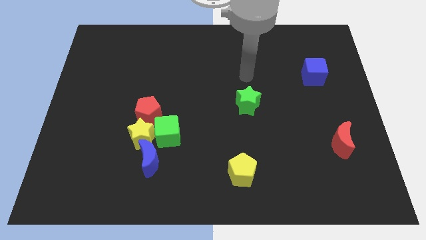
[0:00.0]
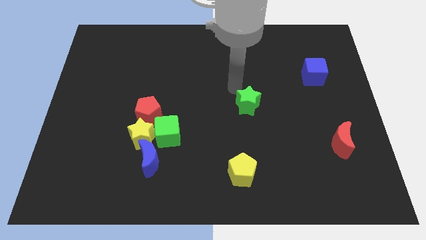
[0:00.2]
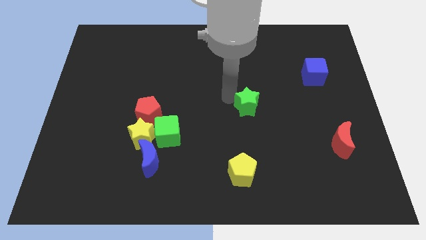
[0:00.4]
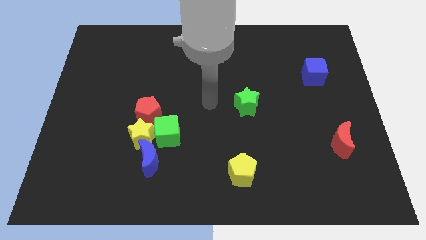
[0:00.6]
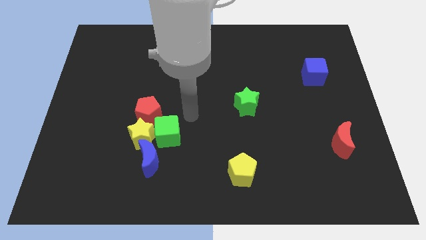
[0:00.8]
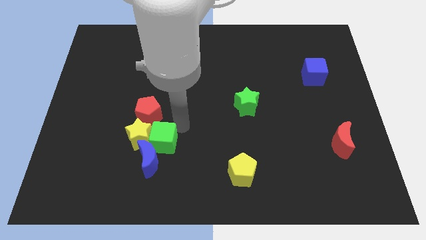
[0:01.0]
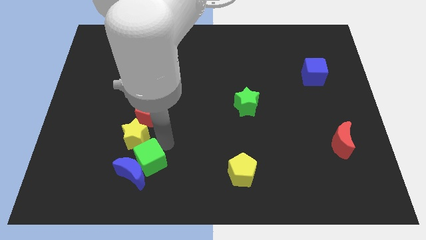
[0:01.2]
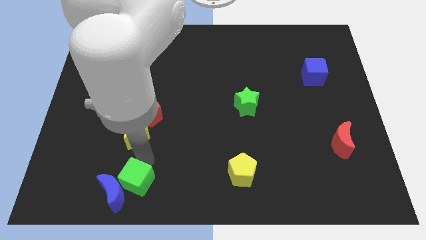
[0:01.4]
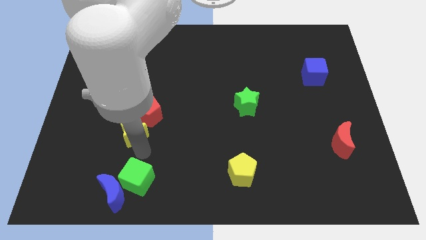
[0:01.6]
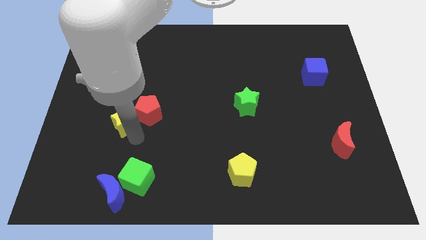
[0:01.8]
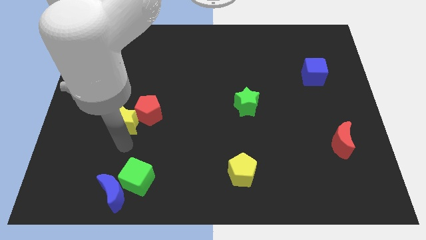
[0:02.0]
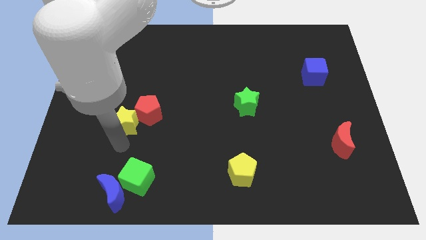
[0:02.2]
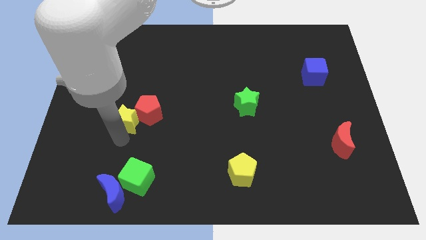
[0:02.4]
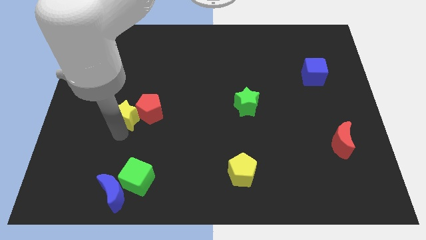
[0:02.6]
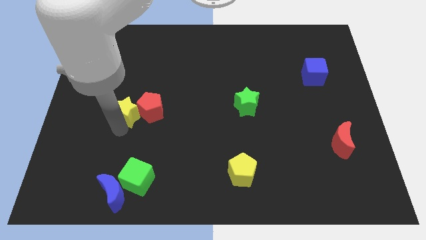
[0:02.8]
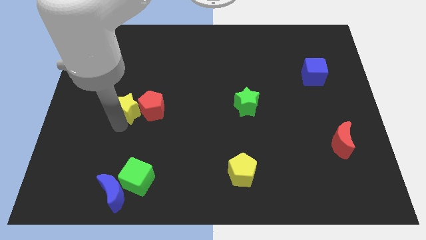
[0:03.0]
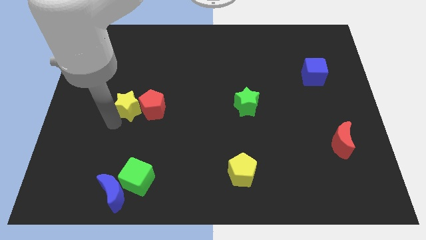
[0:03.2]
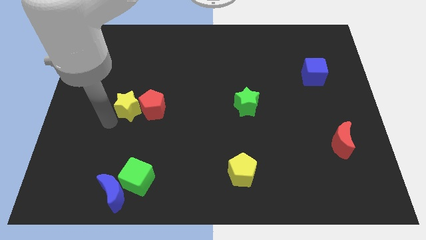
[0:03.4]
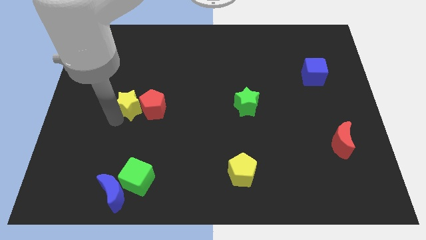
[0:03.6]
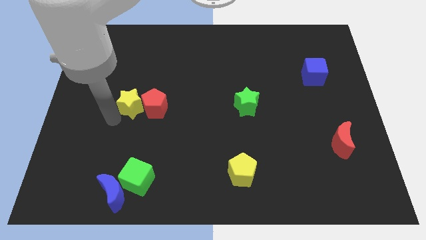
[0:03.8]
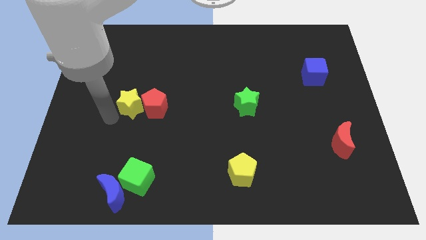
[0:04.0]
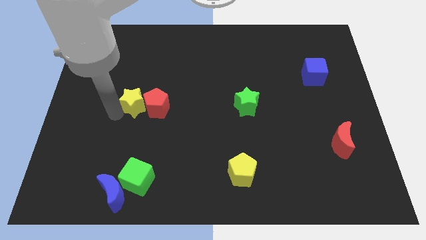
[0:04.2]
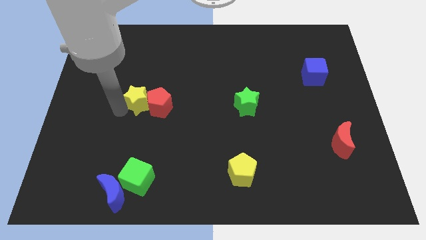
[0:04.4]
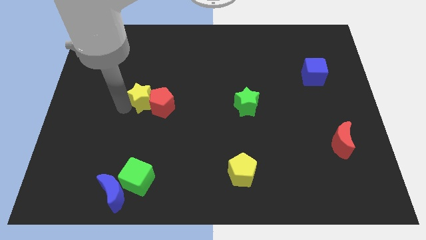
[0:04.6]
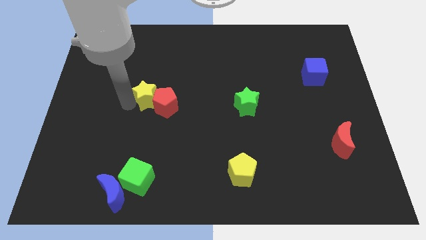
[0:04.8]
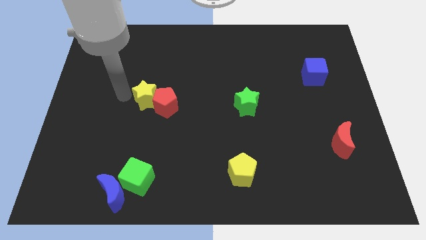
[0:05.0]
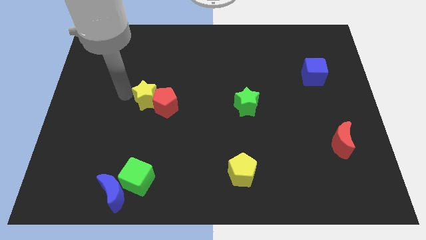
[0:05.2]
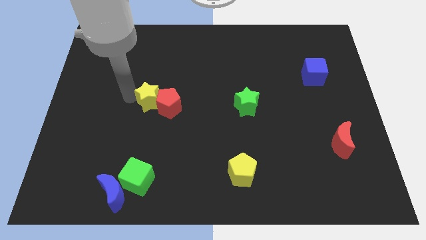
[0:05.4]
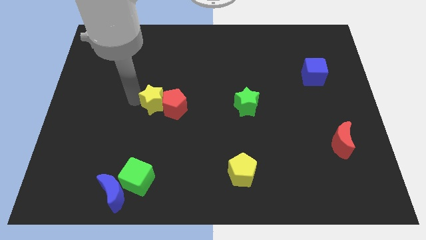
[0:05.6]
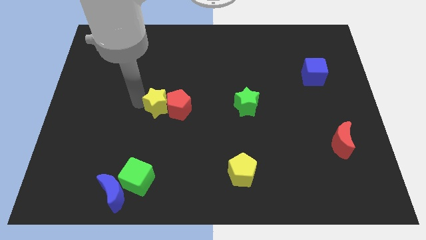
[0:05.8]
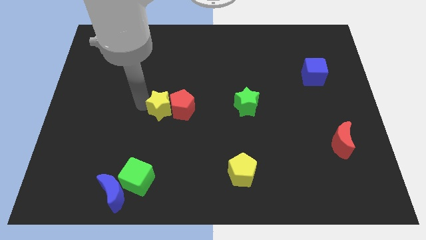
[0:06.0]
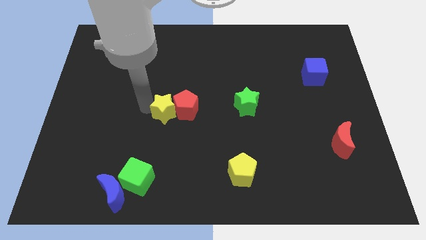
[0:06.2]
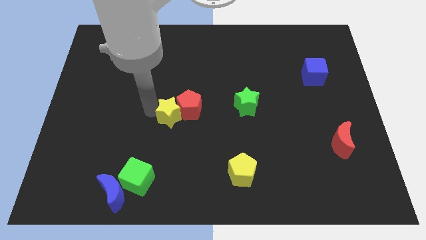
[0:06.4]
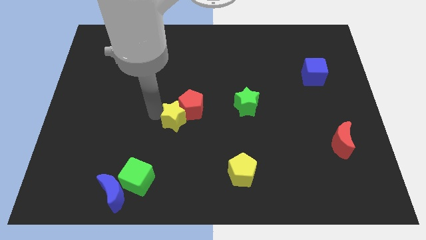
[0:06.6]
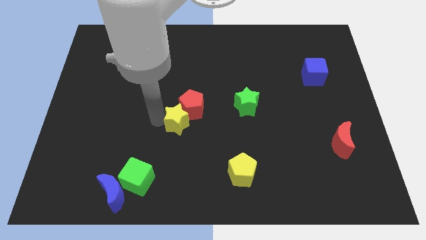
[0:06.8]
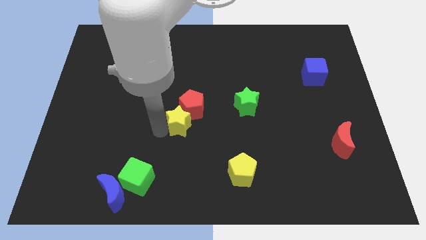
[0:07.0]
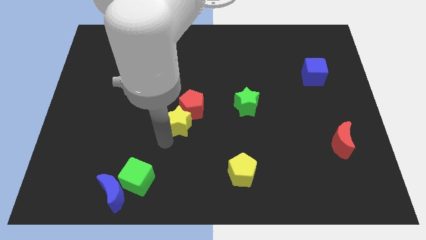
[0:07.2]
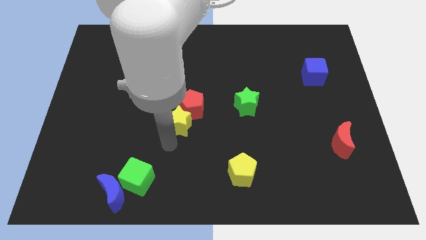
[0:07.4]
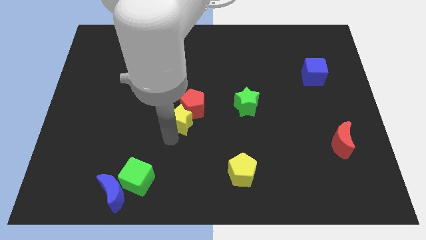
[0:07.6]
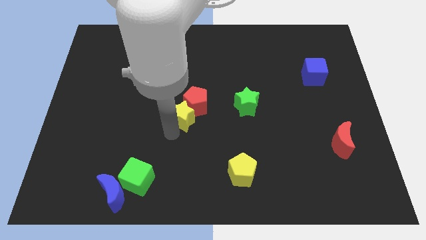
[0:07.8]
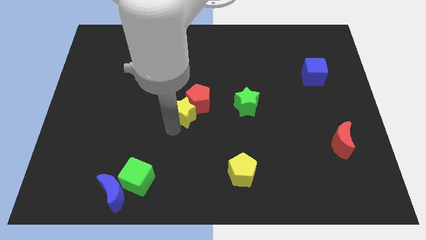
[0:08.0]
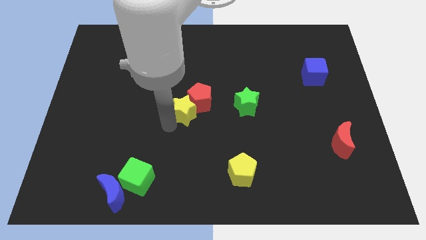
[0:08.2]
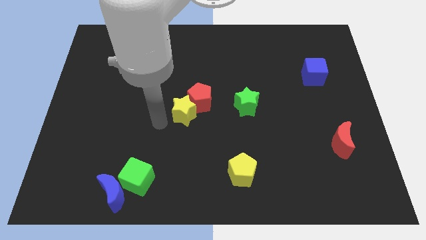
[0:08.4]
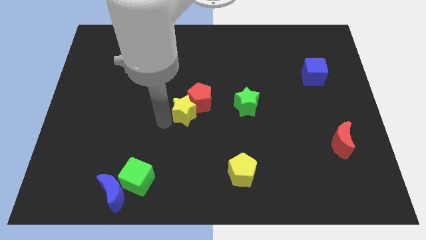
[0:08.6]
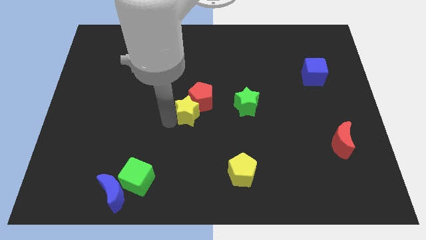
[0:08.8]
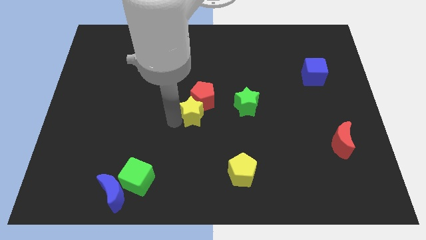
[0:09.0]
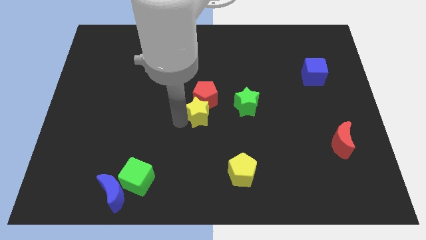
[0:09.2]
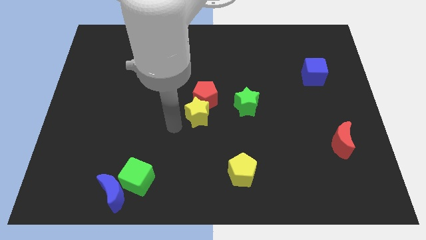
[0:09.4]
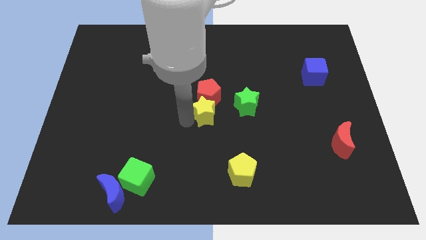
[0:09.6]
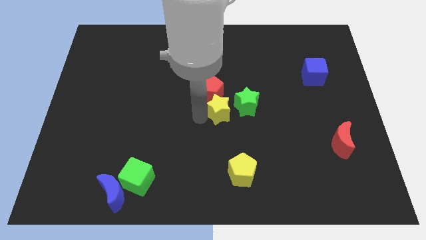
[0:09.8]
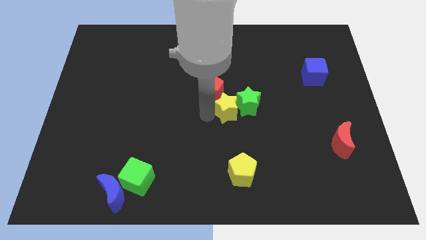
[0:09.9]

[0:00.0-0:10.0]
move the yellow star close to the green star

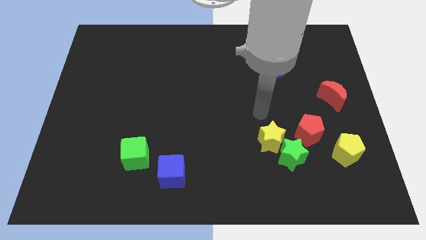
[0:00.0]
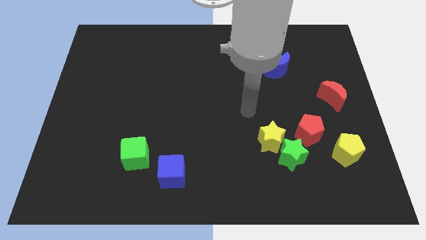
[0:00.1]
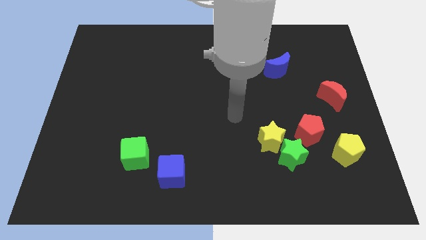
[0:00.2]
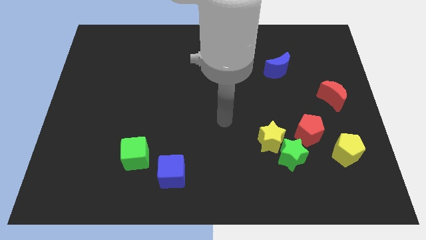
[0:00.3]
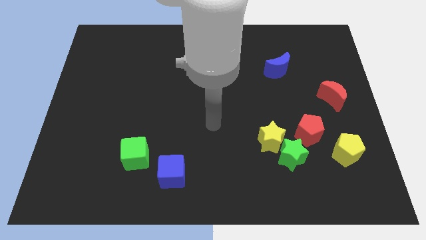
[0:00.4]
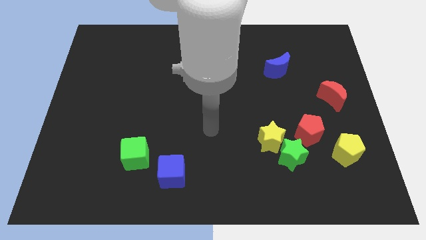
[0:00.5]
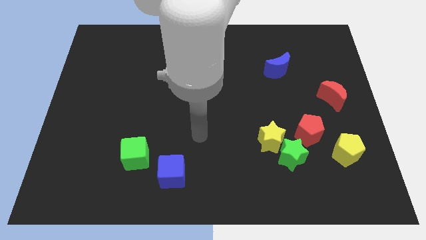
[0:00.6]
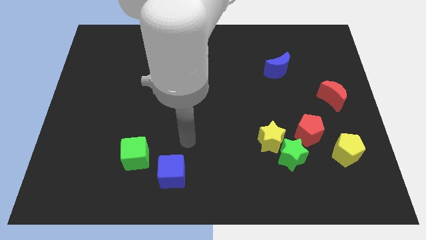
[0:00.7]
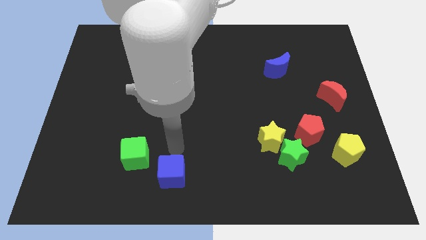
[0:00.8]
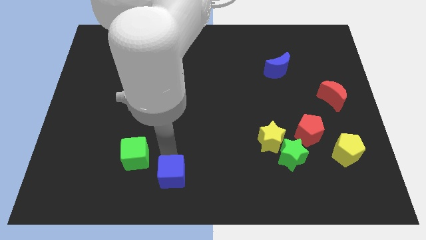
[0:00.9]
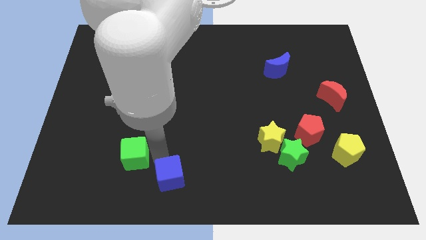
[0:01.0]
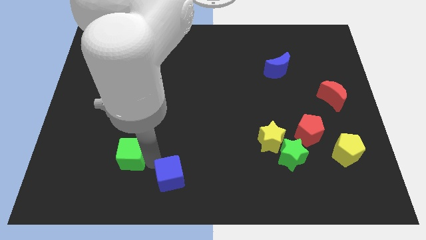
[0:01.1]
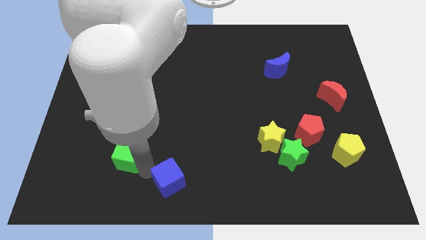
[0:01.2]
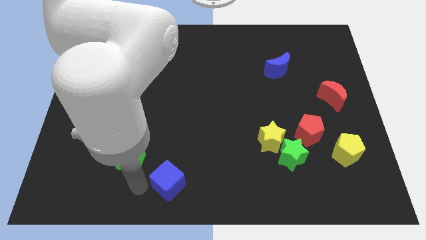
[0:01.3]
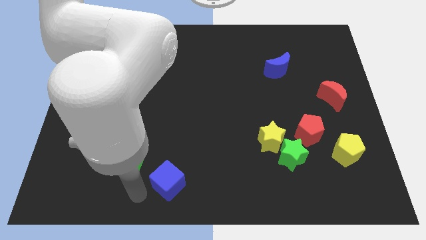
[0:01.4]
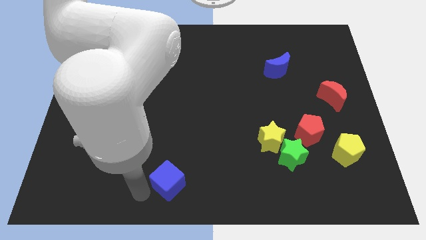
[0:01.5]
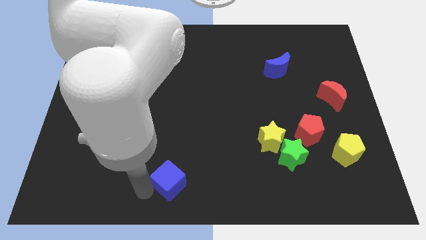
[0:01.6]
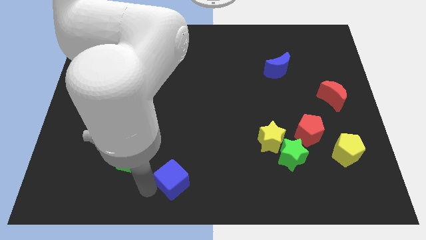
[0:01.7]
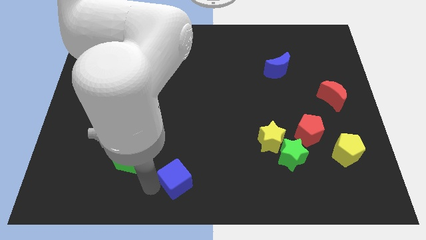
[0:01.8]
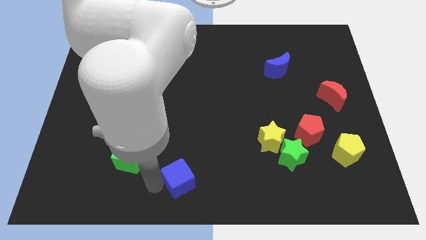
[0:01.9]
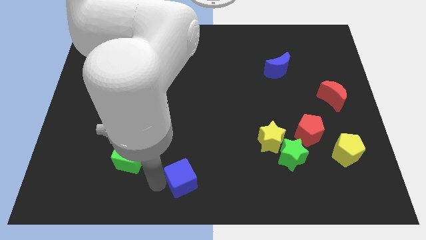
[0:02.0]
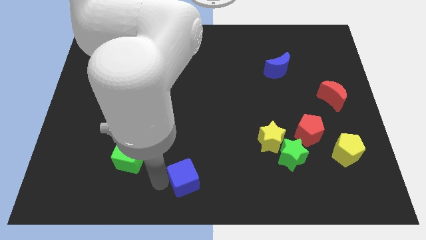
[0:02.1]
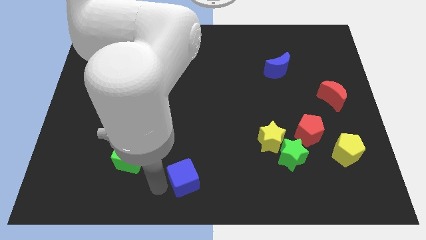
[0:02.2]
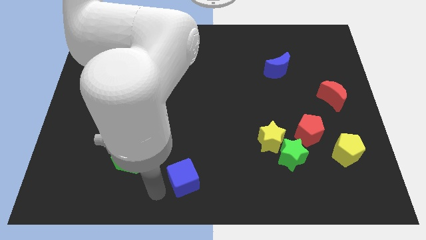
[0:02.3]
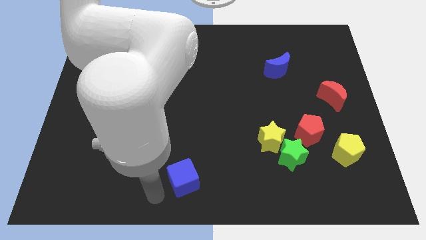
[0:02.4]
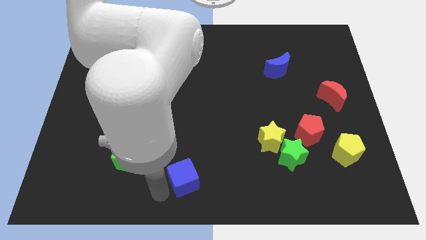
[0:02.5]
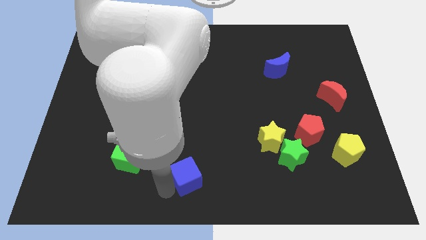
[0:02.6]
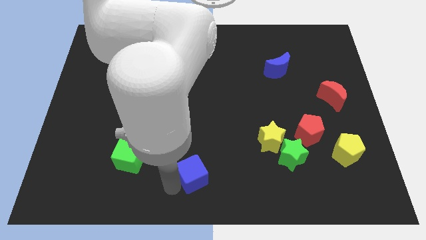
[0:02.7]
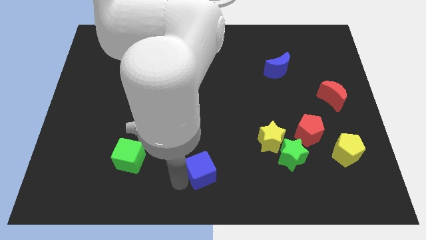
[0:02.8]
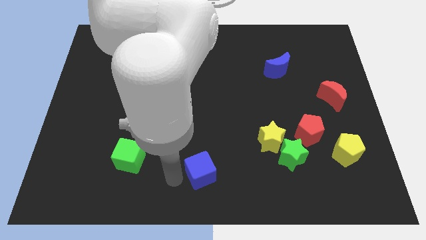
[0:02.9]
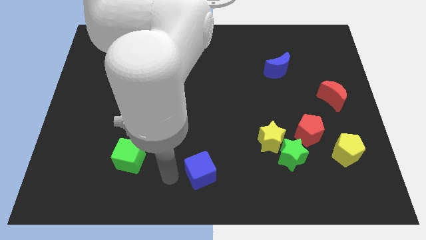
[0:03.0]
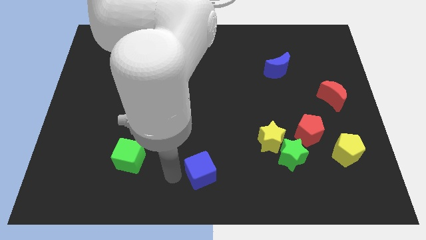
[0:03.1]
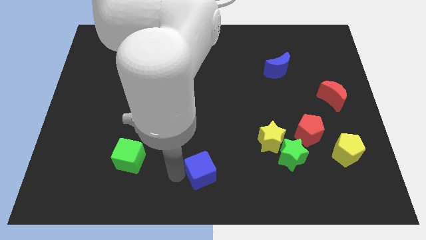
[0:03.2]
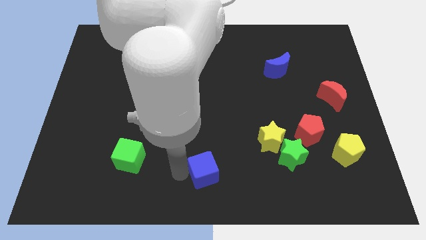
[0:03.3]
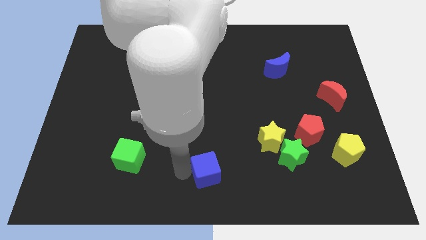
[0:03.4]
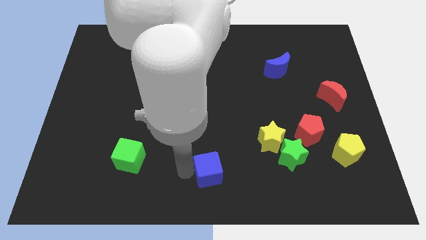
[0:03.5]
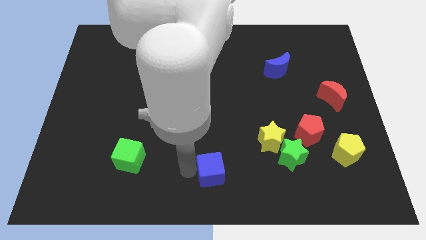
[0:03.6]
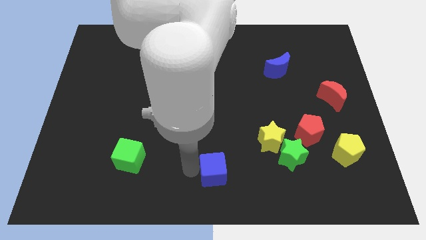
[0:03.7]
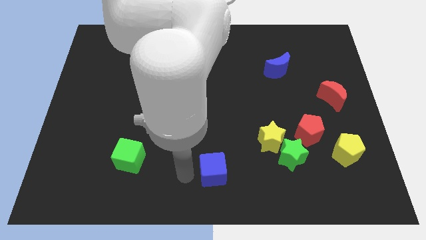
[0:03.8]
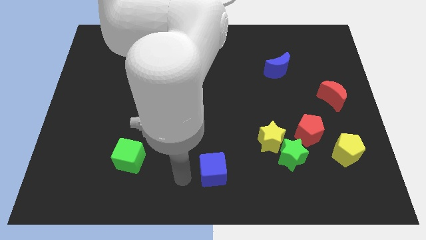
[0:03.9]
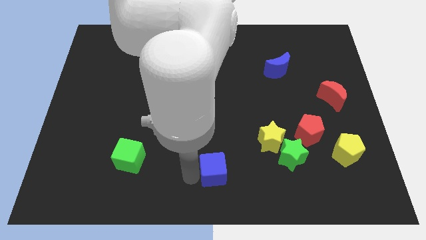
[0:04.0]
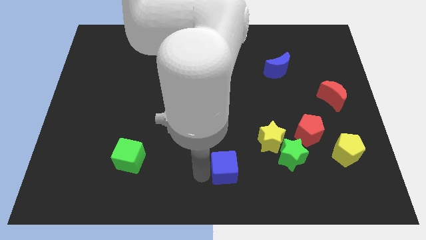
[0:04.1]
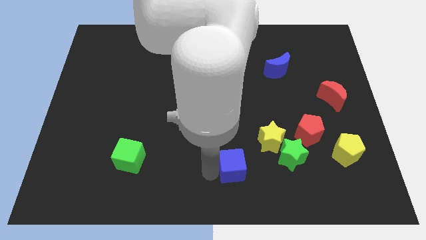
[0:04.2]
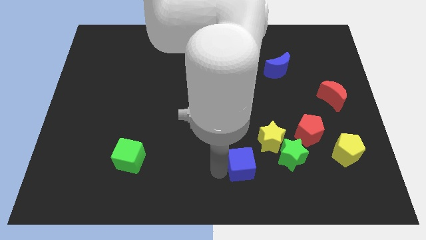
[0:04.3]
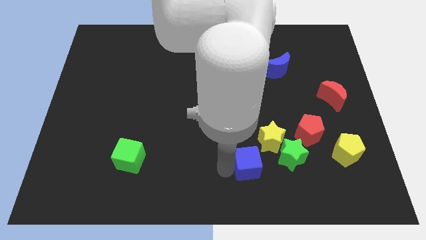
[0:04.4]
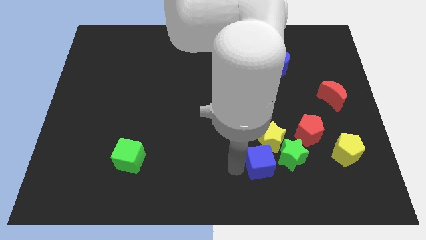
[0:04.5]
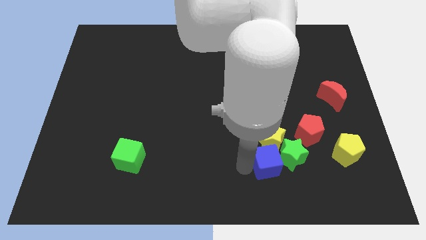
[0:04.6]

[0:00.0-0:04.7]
move the blue cube next to the green star
